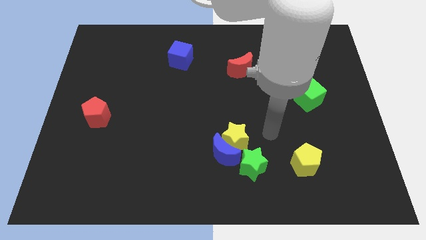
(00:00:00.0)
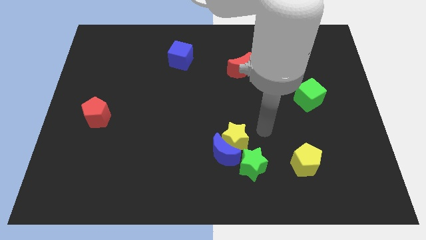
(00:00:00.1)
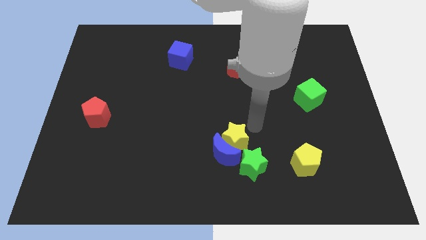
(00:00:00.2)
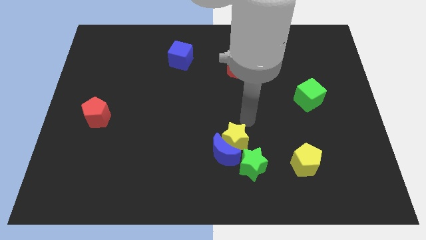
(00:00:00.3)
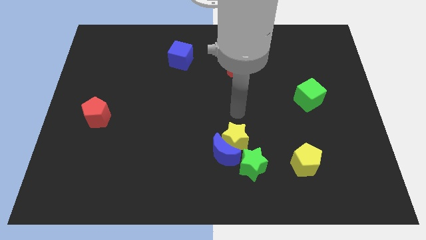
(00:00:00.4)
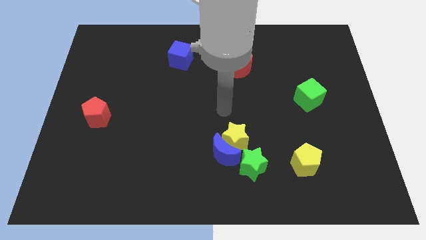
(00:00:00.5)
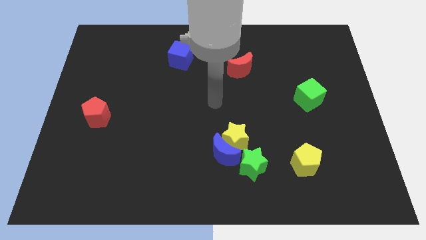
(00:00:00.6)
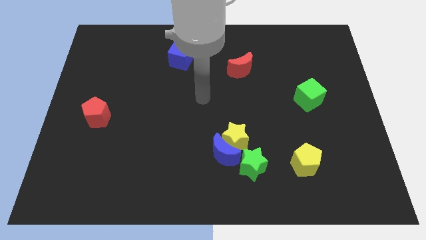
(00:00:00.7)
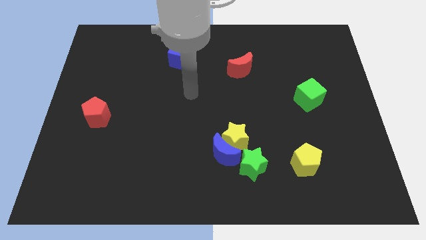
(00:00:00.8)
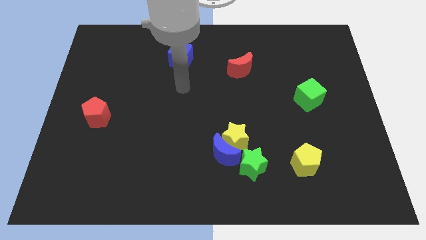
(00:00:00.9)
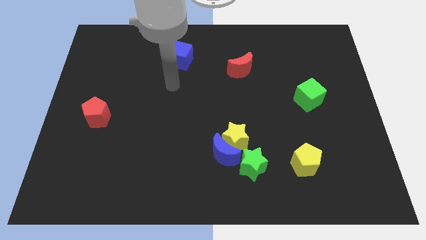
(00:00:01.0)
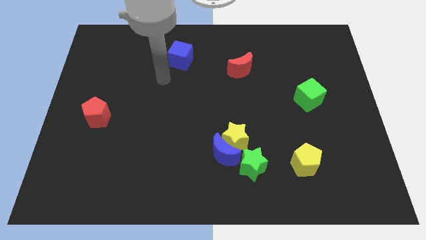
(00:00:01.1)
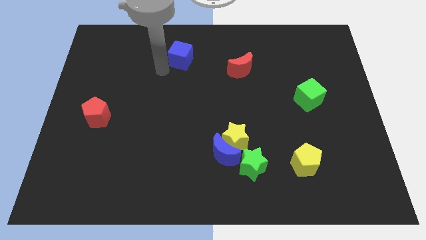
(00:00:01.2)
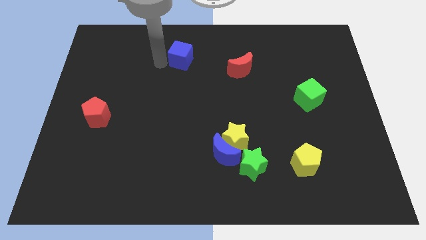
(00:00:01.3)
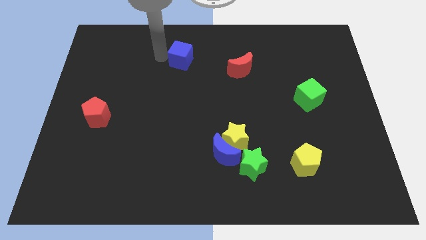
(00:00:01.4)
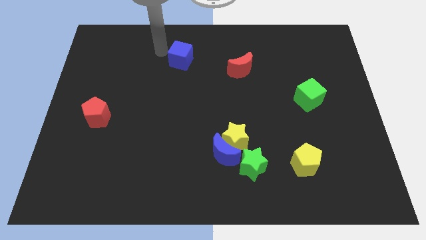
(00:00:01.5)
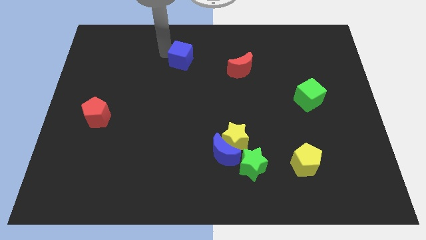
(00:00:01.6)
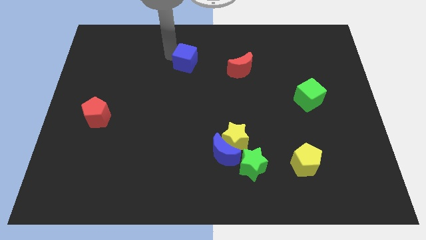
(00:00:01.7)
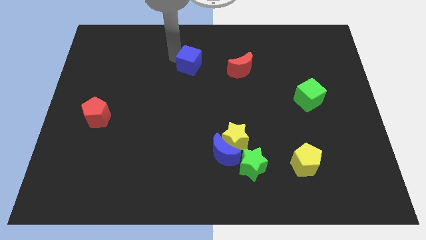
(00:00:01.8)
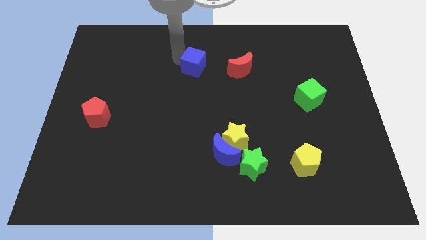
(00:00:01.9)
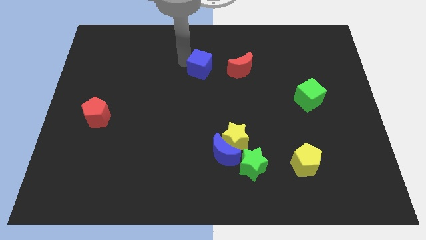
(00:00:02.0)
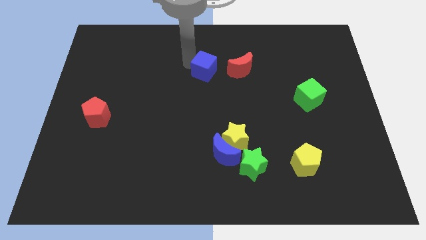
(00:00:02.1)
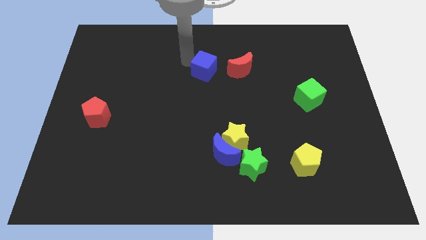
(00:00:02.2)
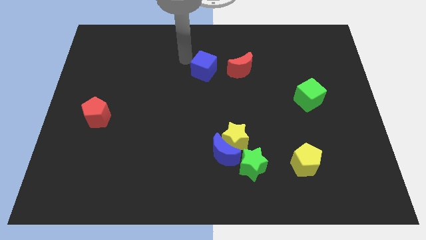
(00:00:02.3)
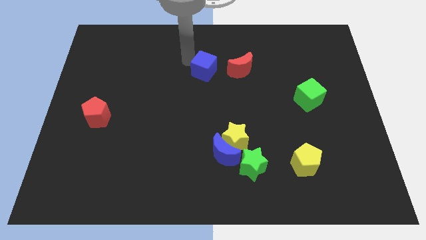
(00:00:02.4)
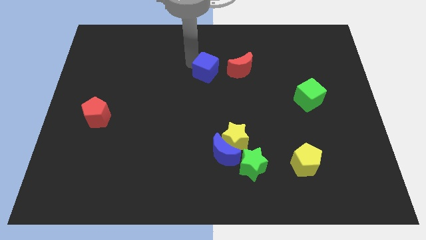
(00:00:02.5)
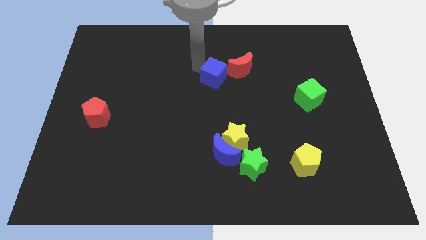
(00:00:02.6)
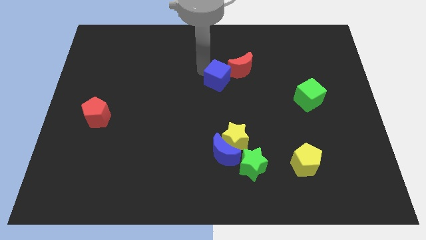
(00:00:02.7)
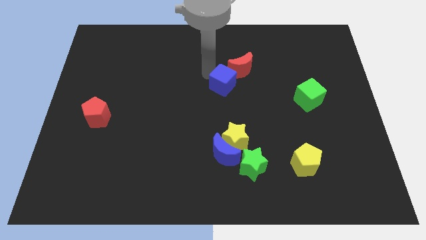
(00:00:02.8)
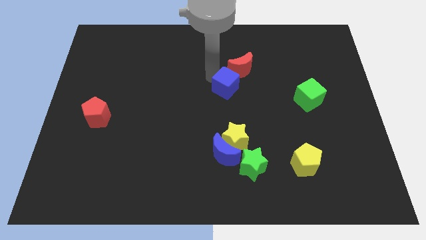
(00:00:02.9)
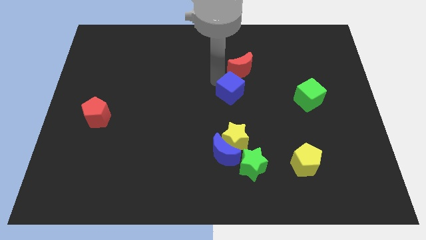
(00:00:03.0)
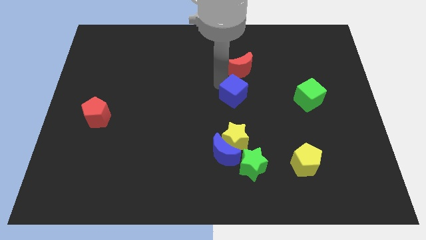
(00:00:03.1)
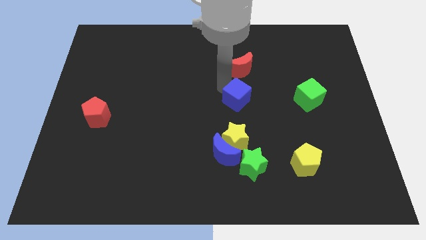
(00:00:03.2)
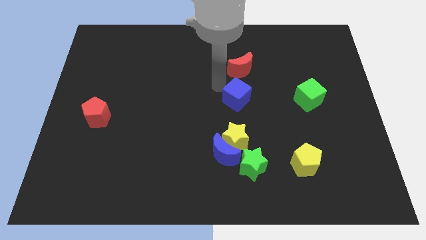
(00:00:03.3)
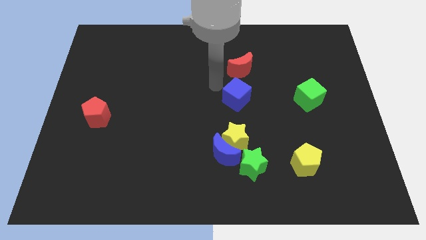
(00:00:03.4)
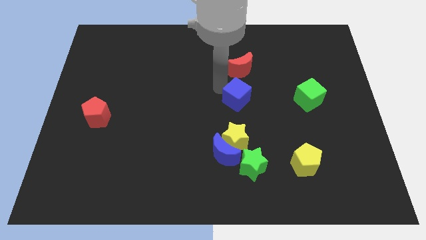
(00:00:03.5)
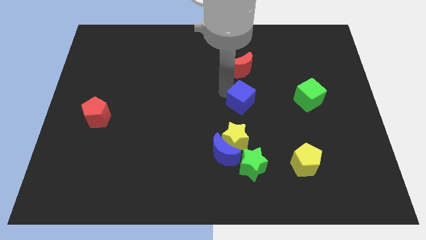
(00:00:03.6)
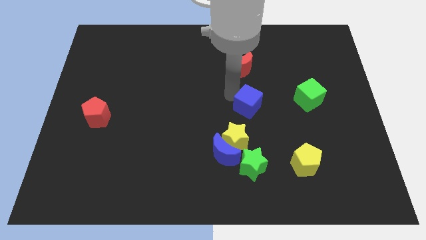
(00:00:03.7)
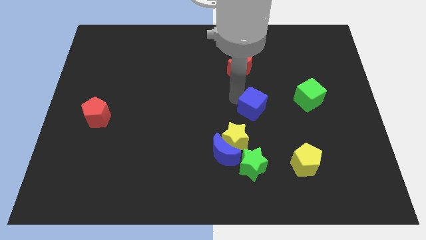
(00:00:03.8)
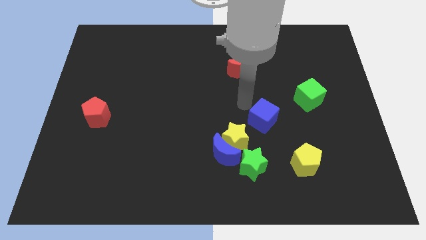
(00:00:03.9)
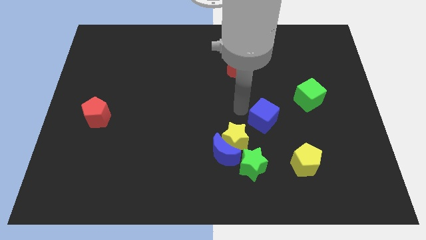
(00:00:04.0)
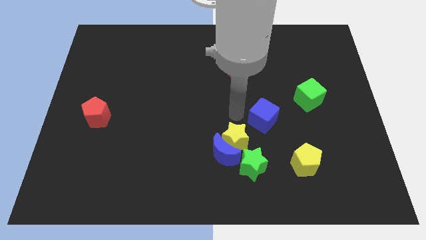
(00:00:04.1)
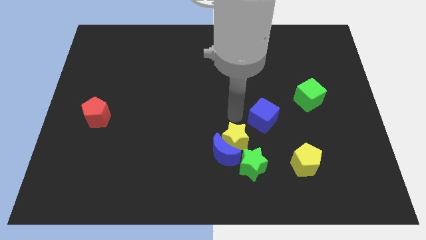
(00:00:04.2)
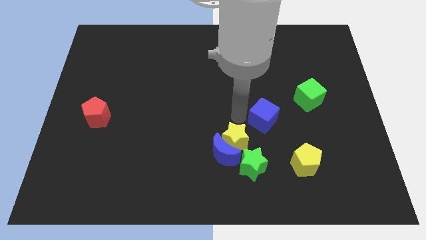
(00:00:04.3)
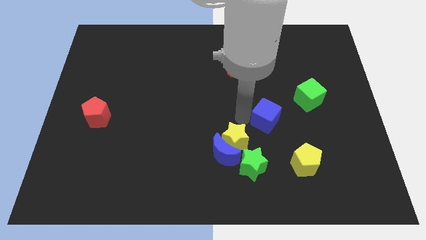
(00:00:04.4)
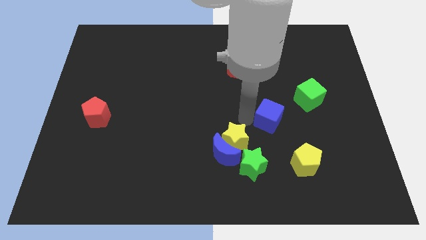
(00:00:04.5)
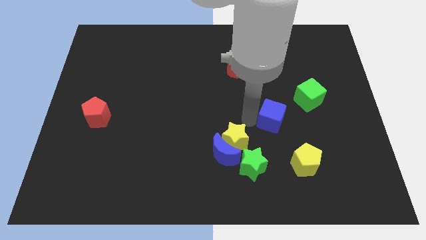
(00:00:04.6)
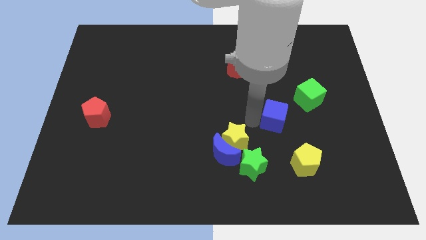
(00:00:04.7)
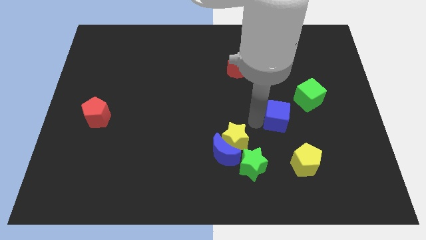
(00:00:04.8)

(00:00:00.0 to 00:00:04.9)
slide the blue cube to the top of the yellow pentagon

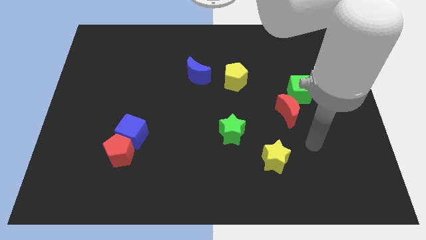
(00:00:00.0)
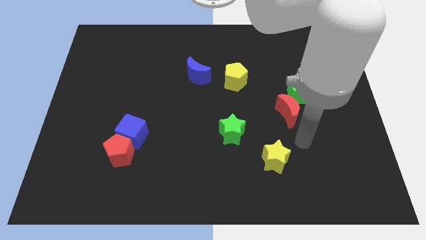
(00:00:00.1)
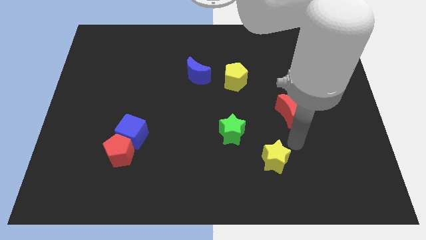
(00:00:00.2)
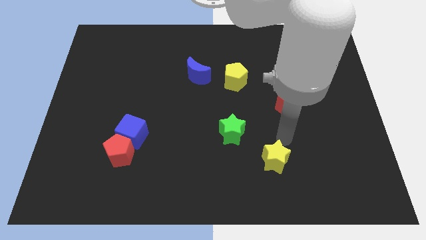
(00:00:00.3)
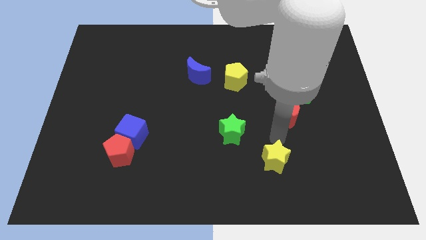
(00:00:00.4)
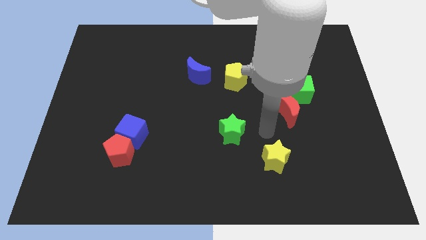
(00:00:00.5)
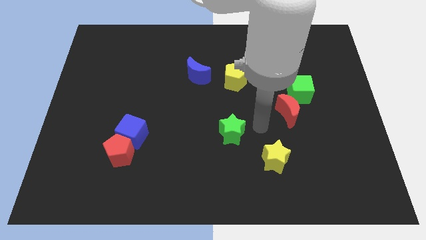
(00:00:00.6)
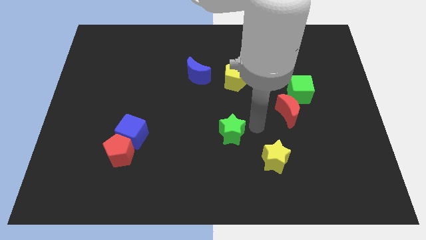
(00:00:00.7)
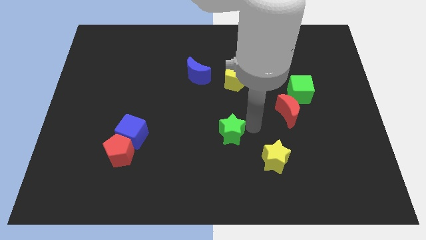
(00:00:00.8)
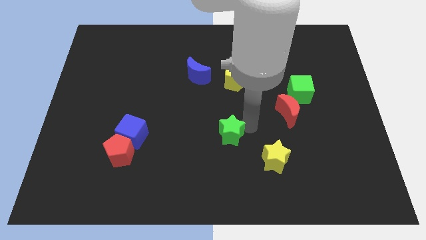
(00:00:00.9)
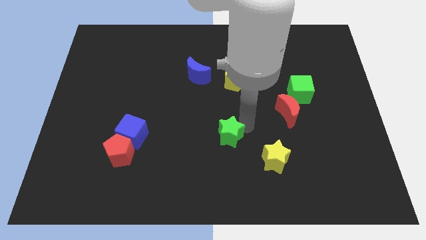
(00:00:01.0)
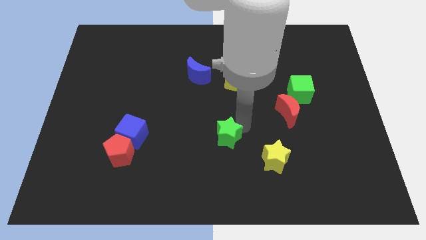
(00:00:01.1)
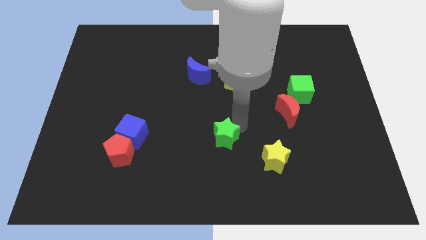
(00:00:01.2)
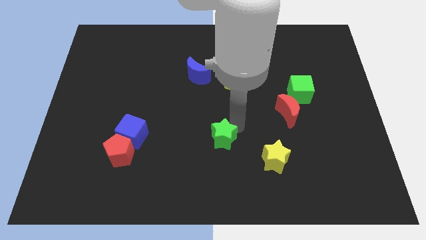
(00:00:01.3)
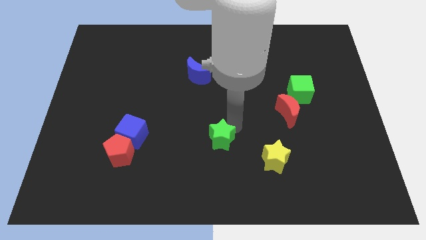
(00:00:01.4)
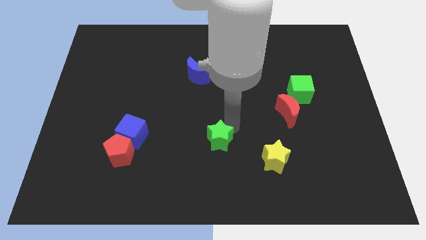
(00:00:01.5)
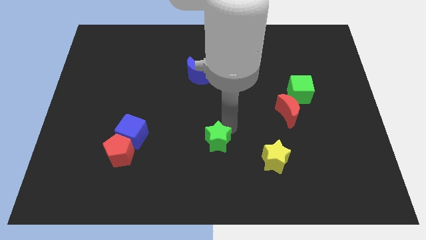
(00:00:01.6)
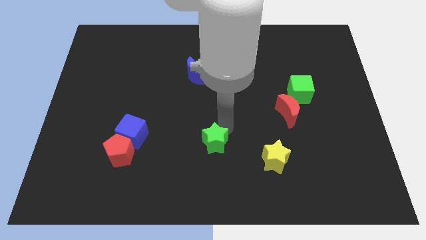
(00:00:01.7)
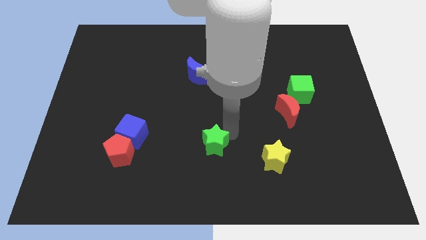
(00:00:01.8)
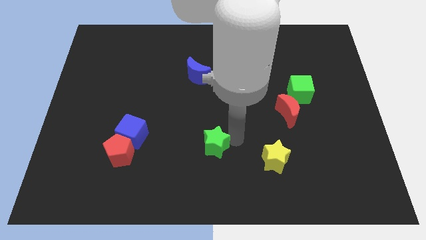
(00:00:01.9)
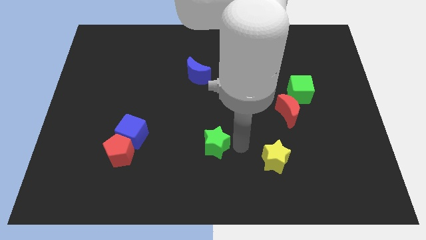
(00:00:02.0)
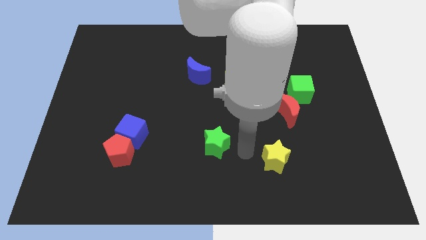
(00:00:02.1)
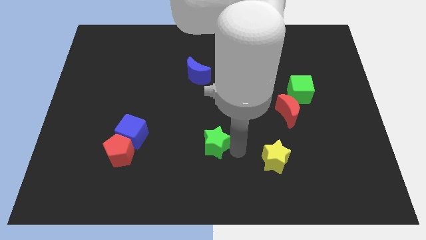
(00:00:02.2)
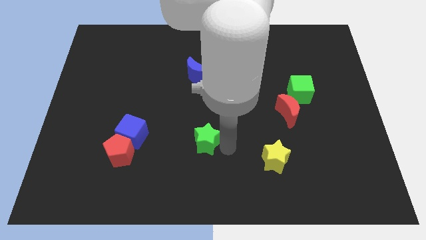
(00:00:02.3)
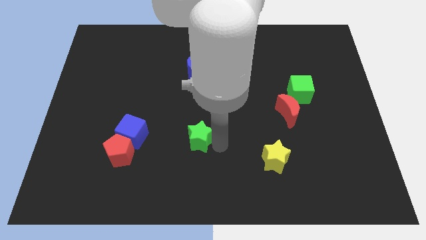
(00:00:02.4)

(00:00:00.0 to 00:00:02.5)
slide the green star just right of the blue cube

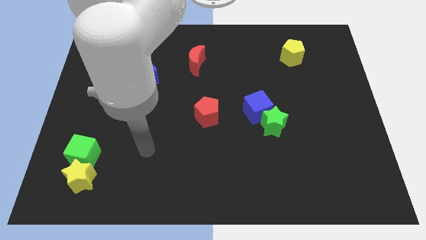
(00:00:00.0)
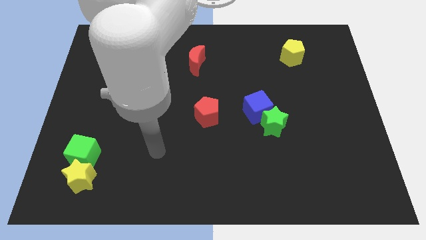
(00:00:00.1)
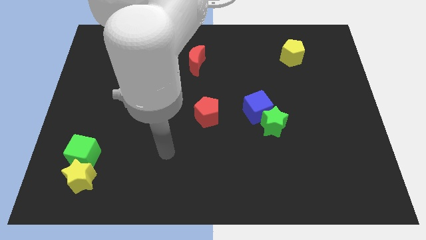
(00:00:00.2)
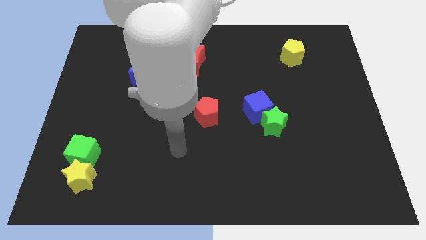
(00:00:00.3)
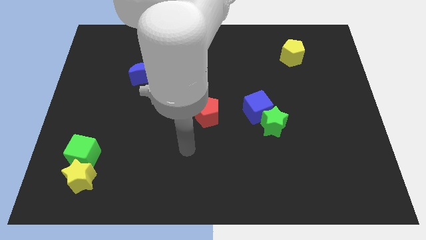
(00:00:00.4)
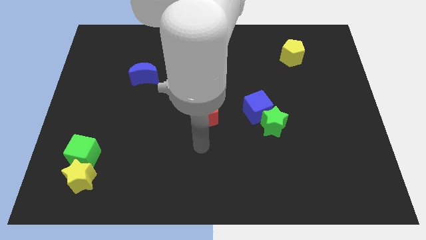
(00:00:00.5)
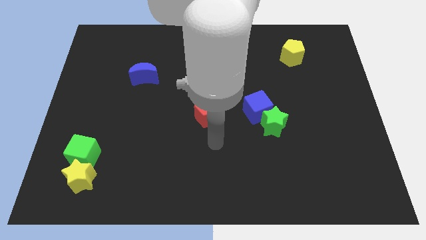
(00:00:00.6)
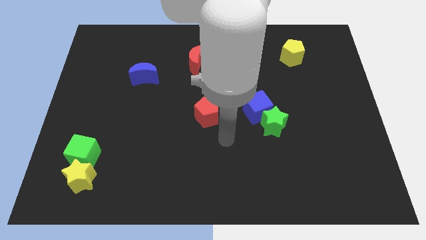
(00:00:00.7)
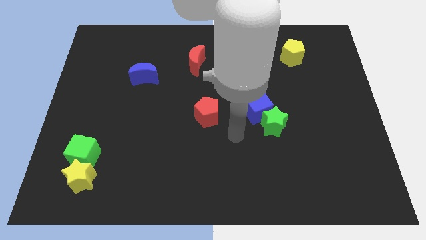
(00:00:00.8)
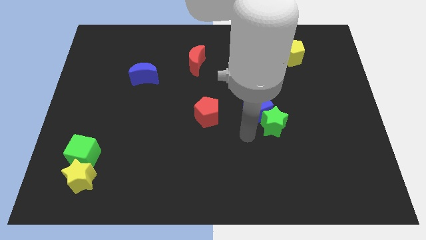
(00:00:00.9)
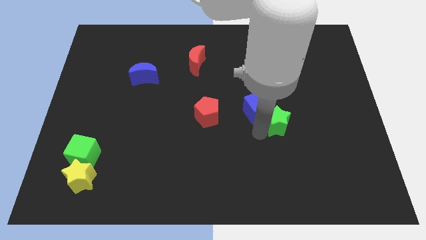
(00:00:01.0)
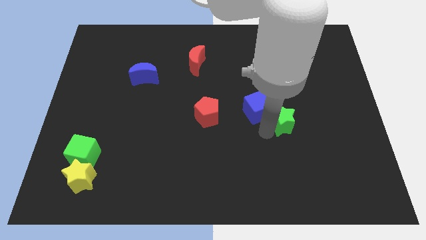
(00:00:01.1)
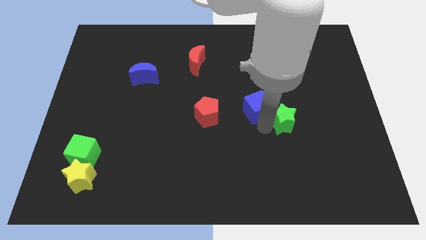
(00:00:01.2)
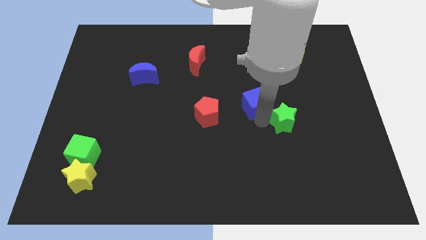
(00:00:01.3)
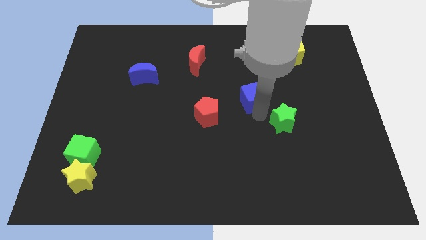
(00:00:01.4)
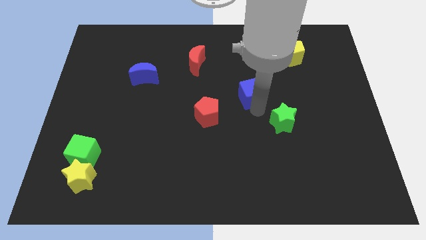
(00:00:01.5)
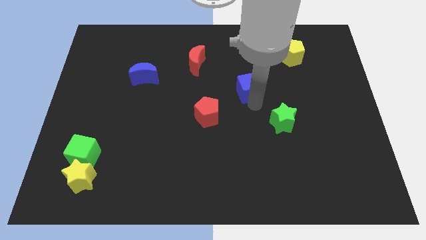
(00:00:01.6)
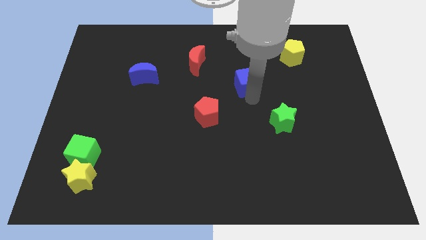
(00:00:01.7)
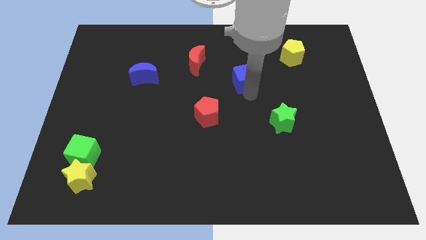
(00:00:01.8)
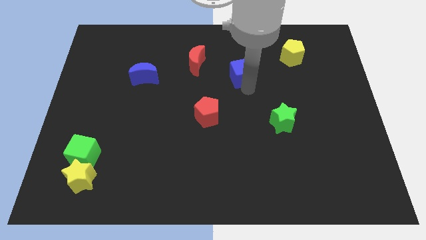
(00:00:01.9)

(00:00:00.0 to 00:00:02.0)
slide the blue cube to the right side of the red moon
